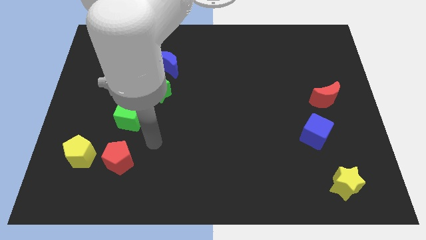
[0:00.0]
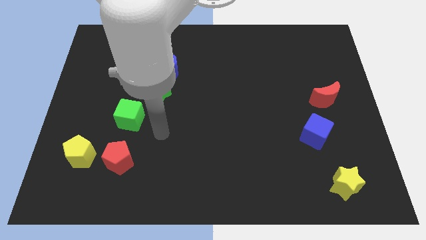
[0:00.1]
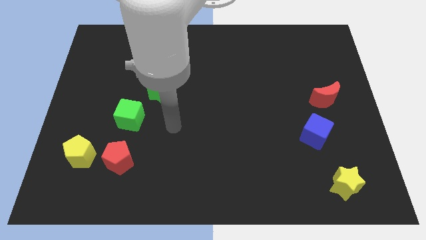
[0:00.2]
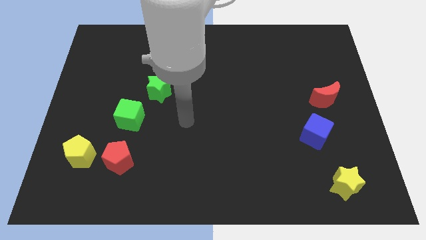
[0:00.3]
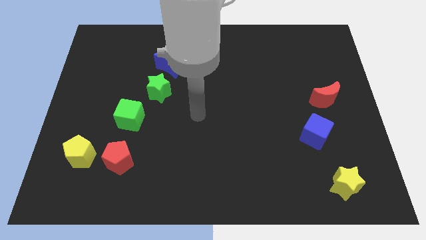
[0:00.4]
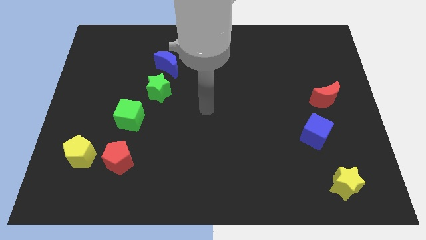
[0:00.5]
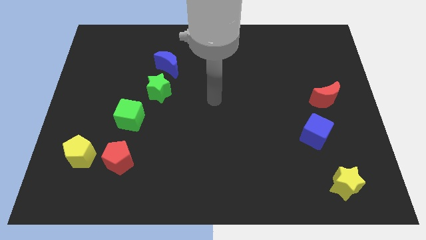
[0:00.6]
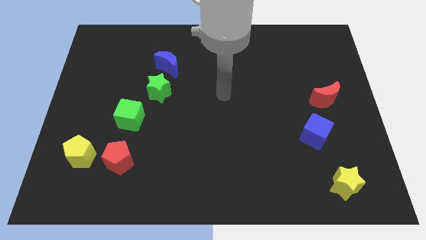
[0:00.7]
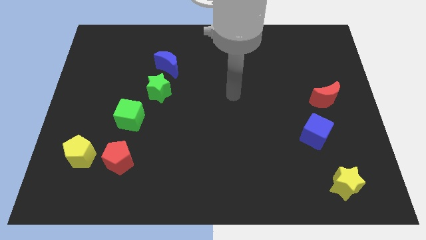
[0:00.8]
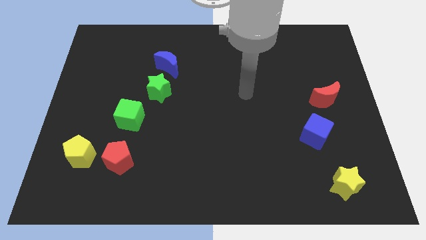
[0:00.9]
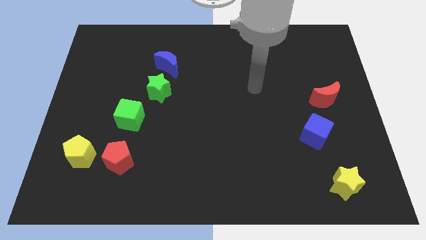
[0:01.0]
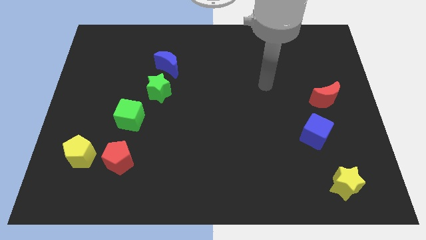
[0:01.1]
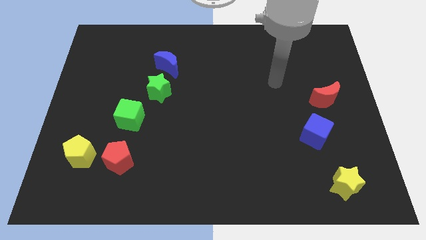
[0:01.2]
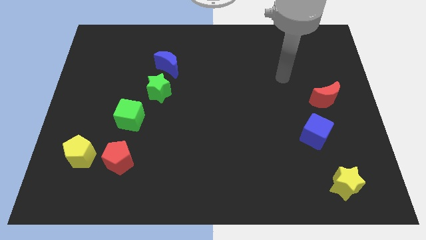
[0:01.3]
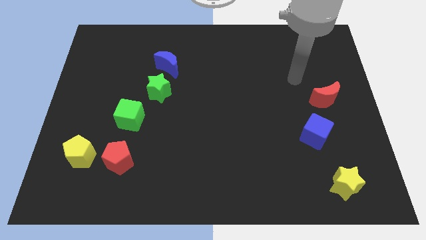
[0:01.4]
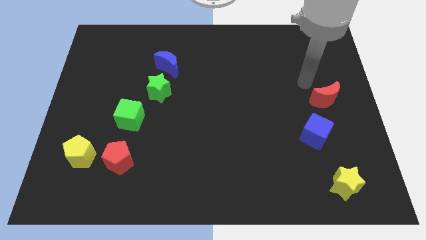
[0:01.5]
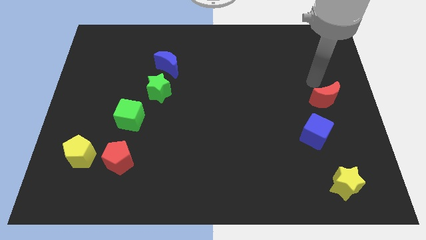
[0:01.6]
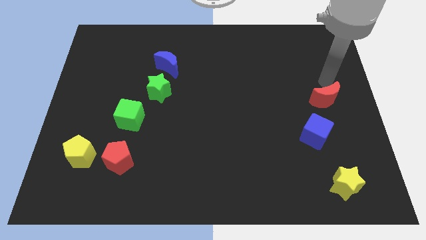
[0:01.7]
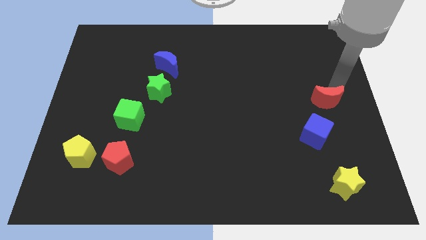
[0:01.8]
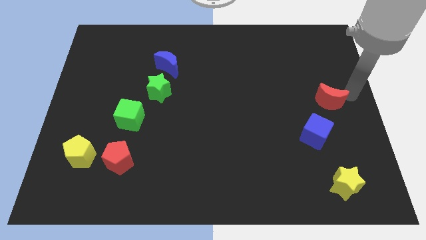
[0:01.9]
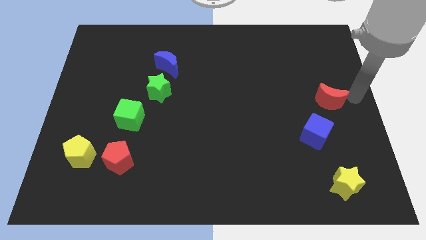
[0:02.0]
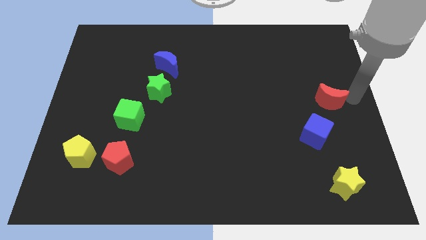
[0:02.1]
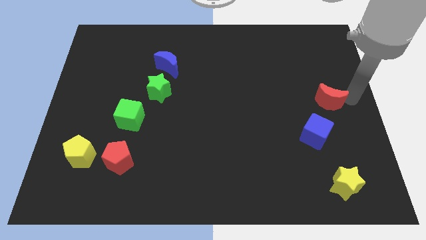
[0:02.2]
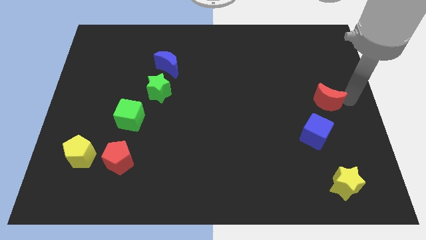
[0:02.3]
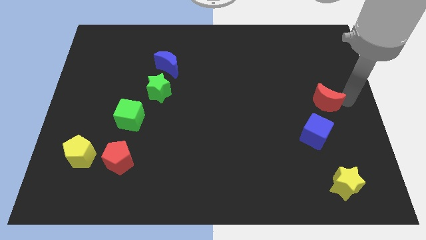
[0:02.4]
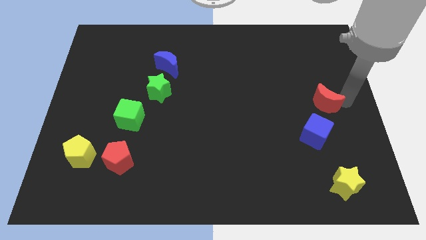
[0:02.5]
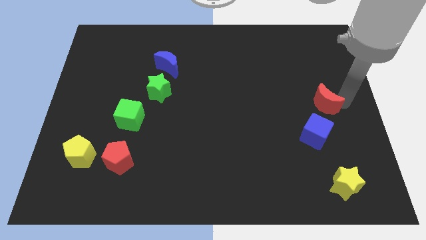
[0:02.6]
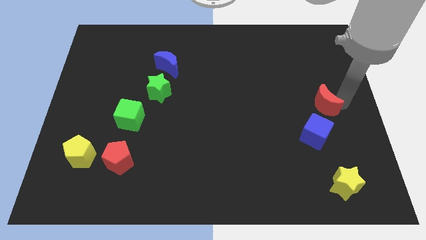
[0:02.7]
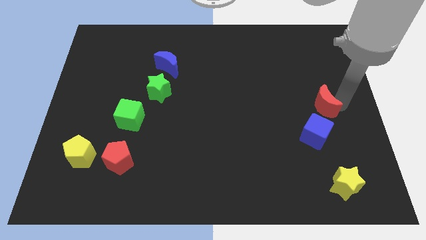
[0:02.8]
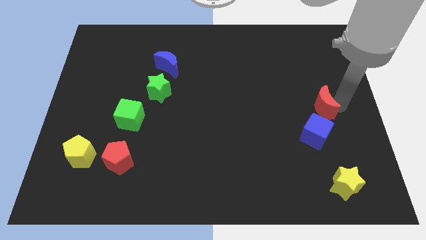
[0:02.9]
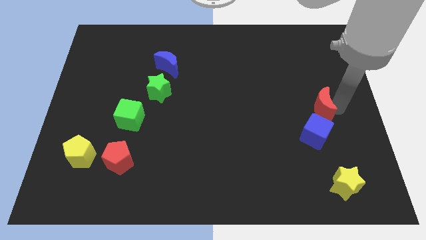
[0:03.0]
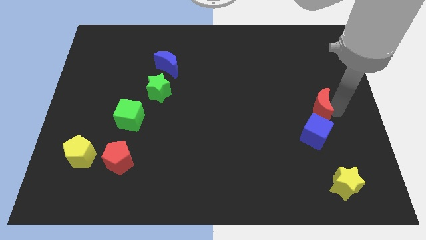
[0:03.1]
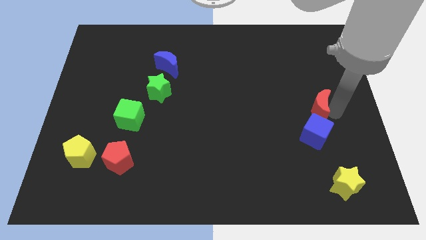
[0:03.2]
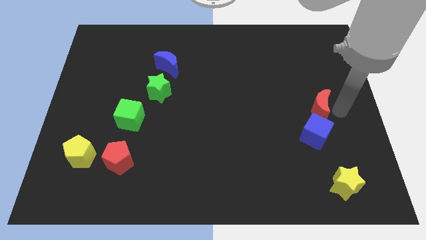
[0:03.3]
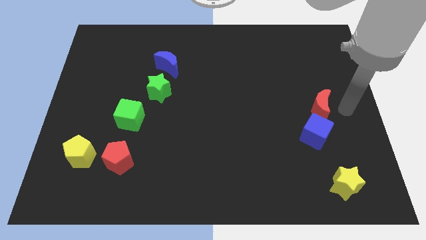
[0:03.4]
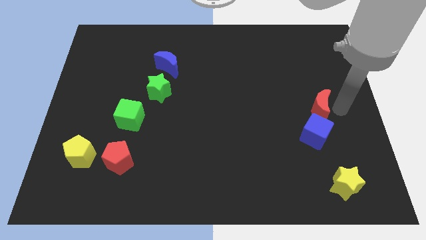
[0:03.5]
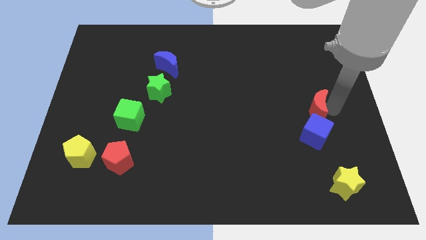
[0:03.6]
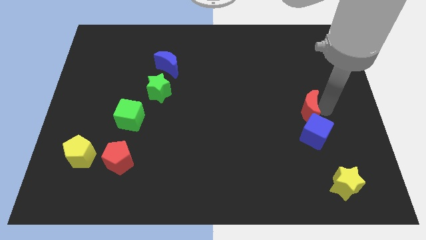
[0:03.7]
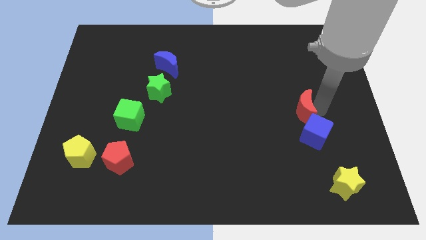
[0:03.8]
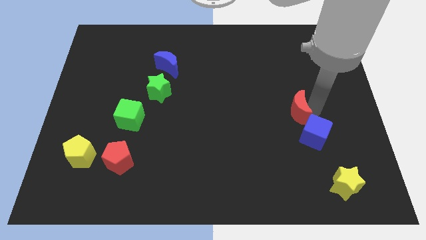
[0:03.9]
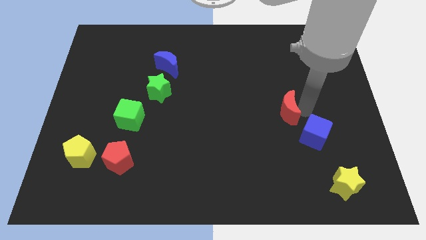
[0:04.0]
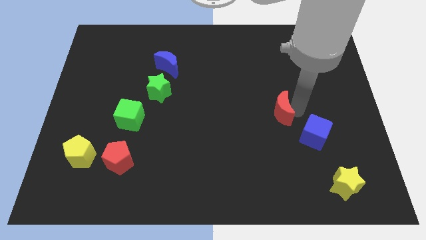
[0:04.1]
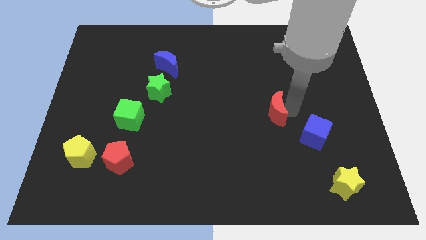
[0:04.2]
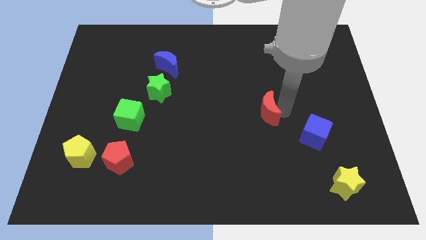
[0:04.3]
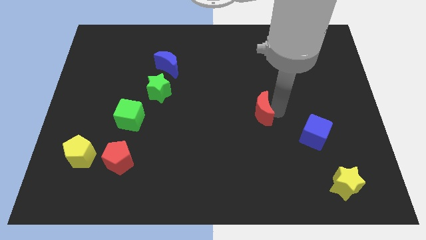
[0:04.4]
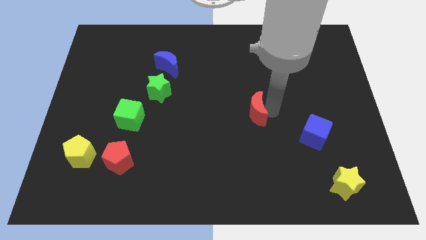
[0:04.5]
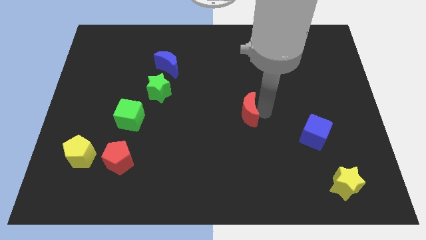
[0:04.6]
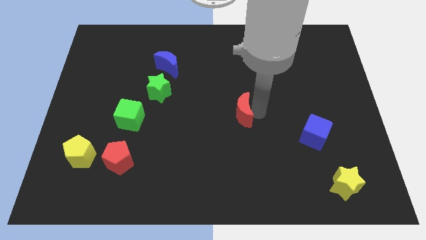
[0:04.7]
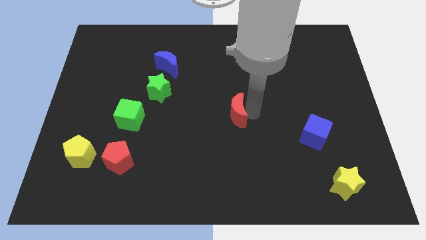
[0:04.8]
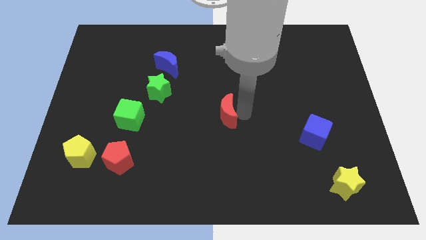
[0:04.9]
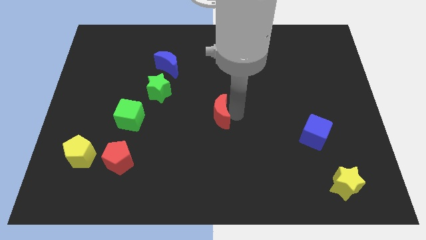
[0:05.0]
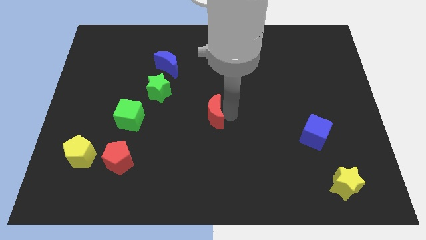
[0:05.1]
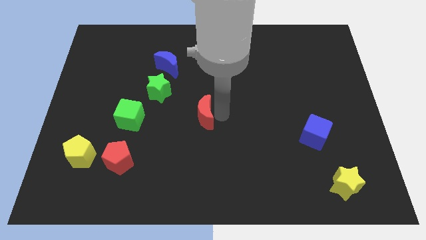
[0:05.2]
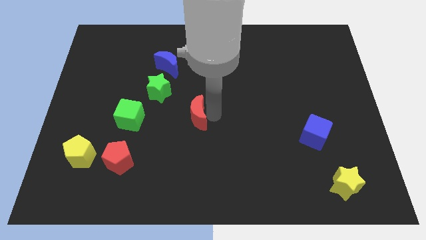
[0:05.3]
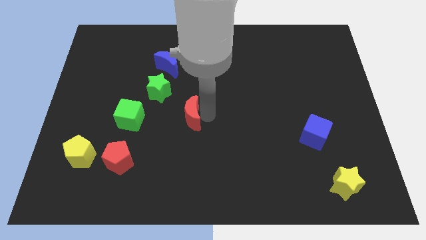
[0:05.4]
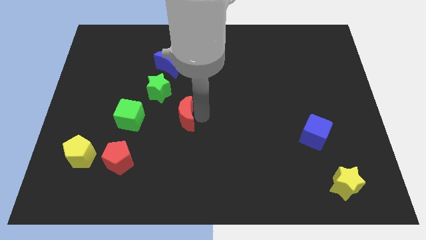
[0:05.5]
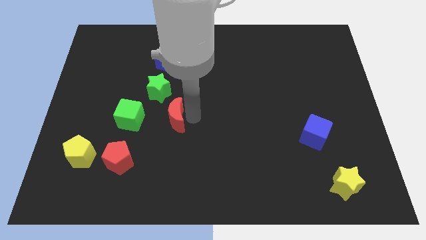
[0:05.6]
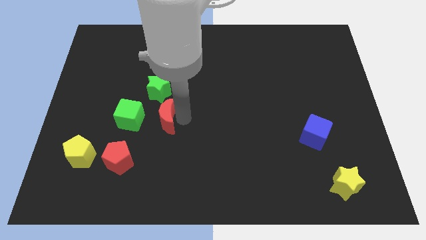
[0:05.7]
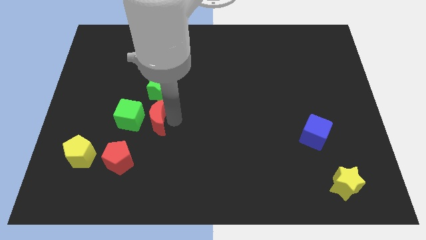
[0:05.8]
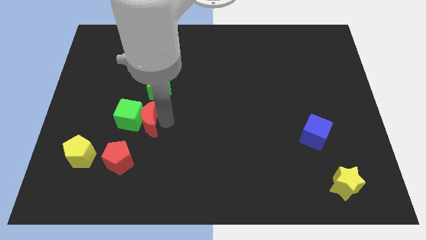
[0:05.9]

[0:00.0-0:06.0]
move the red moon towards the green cube
